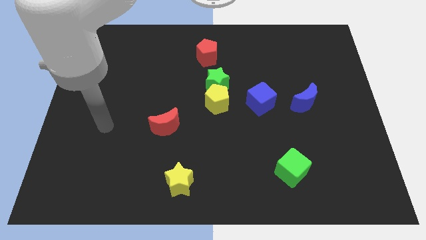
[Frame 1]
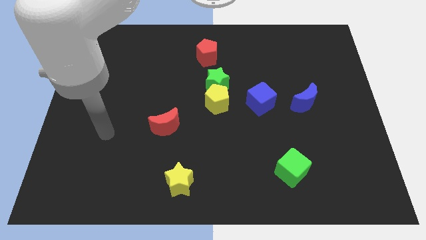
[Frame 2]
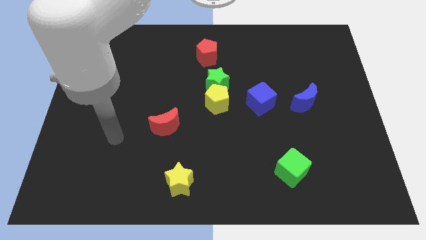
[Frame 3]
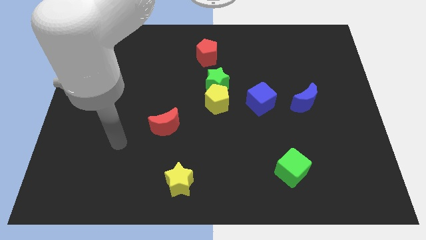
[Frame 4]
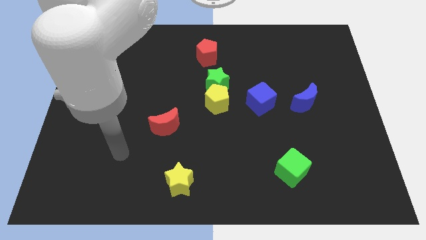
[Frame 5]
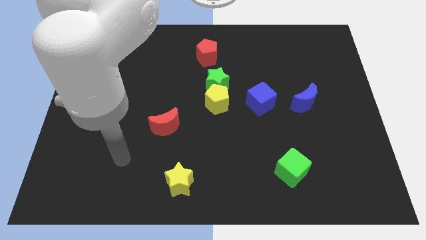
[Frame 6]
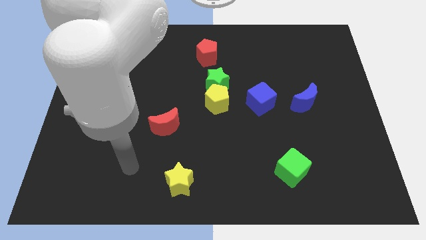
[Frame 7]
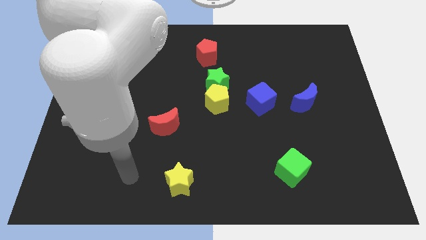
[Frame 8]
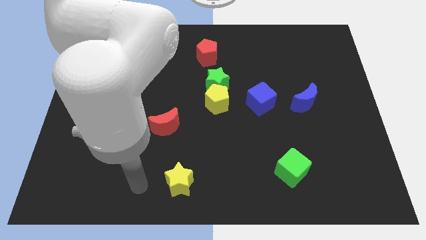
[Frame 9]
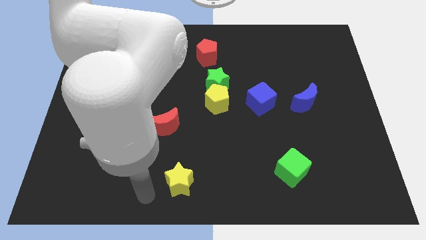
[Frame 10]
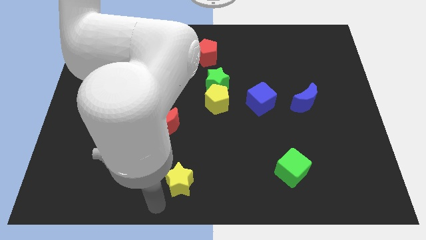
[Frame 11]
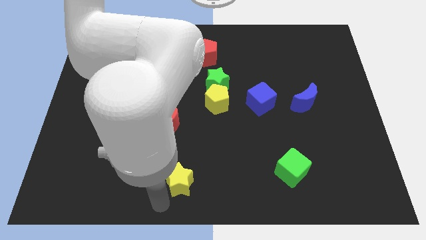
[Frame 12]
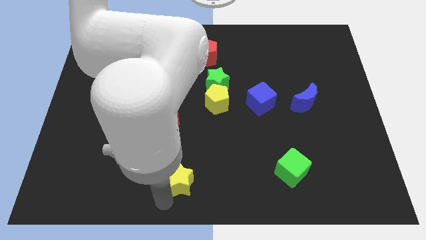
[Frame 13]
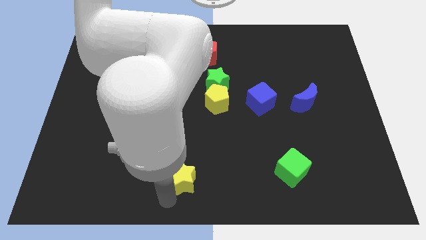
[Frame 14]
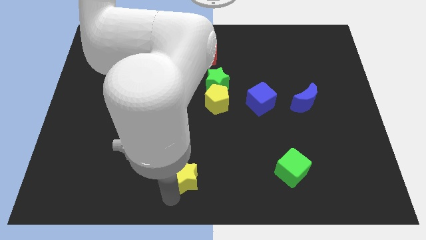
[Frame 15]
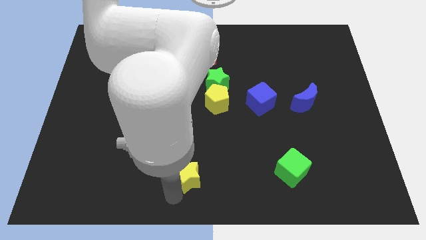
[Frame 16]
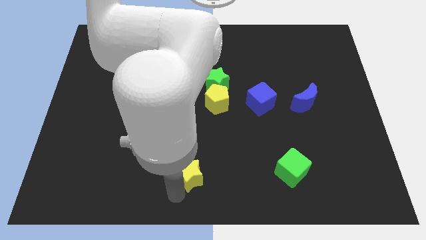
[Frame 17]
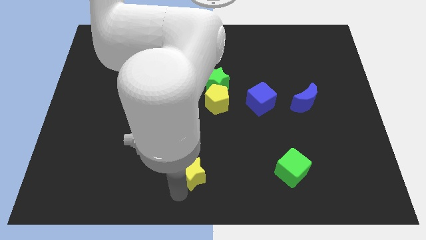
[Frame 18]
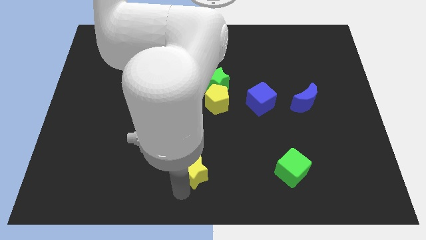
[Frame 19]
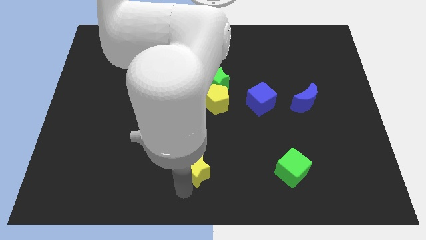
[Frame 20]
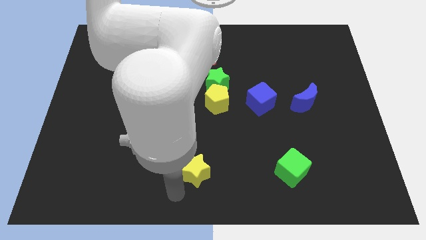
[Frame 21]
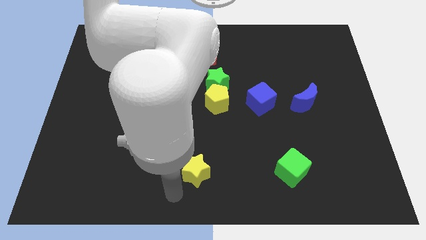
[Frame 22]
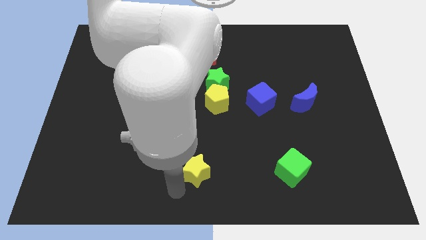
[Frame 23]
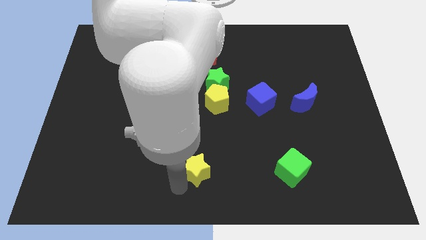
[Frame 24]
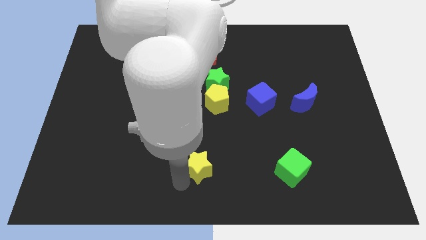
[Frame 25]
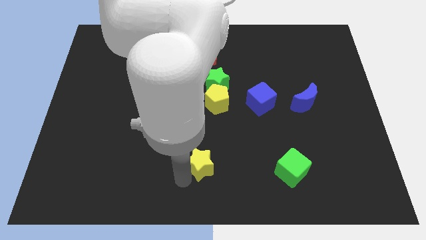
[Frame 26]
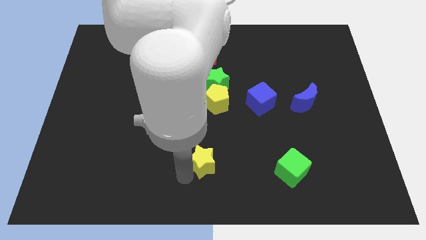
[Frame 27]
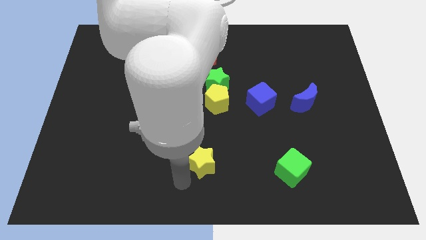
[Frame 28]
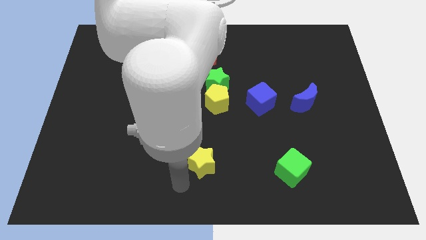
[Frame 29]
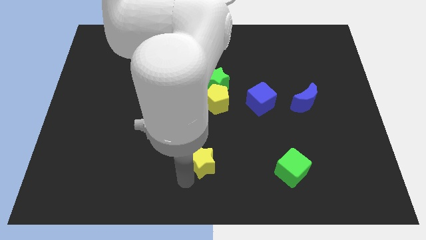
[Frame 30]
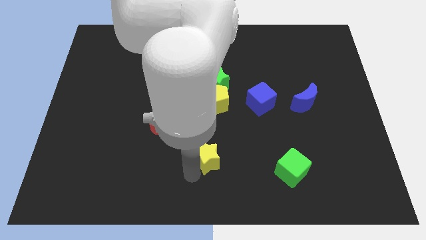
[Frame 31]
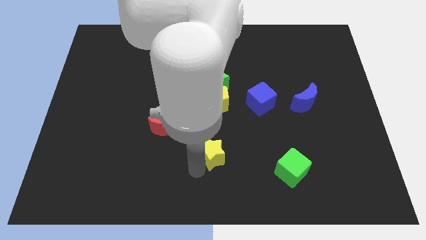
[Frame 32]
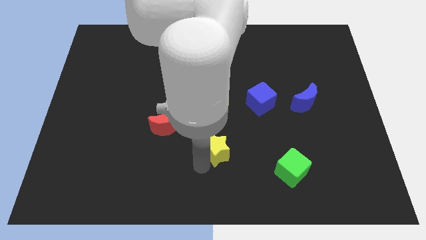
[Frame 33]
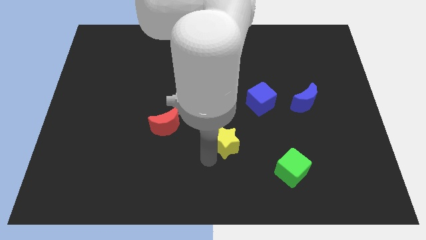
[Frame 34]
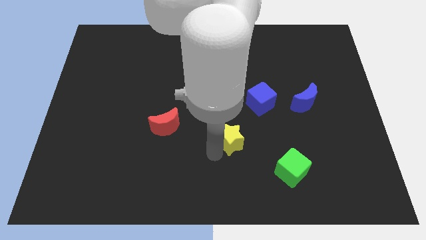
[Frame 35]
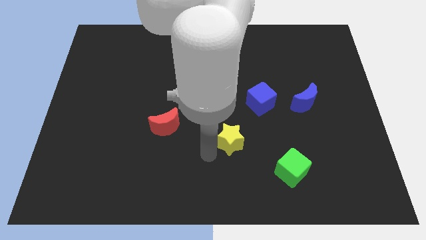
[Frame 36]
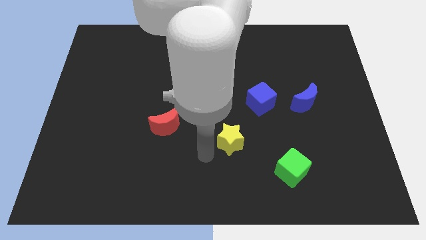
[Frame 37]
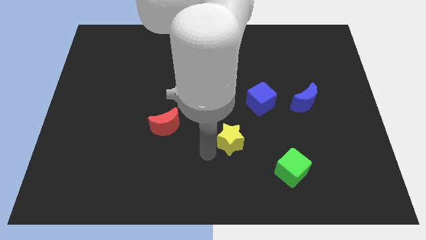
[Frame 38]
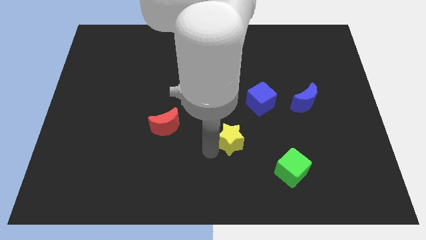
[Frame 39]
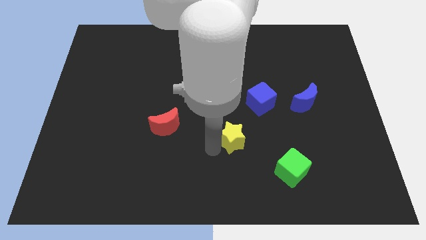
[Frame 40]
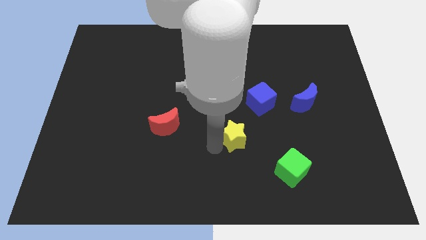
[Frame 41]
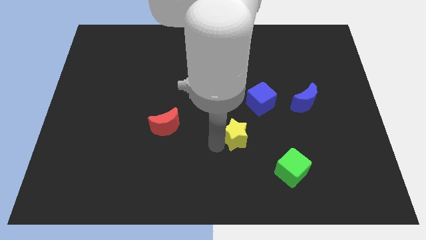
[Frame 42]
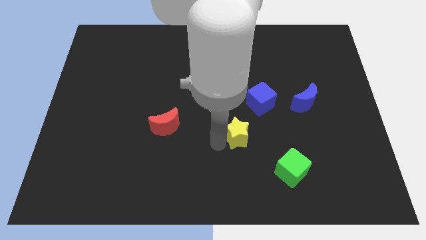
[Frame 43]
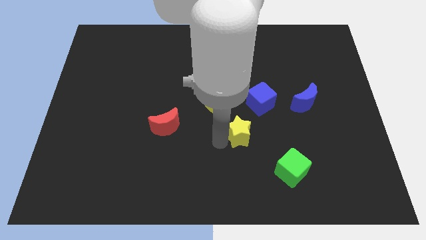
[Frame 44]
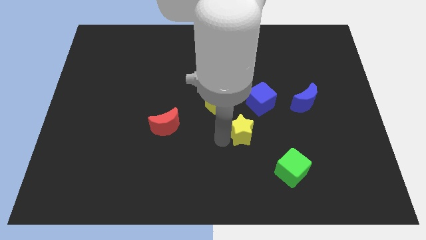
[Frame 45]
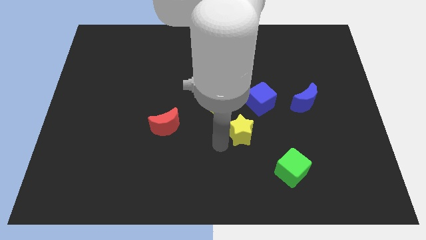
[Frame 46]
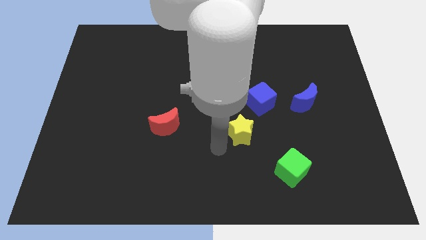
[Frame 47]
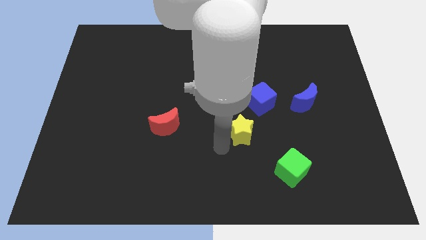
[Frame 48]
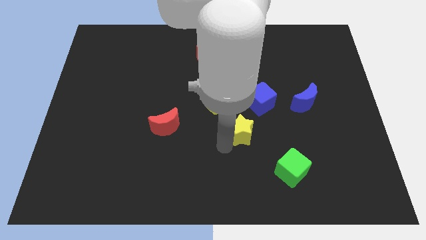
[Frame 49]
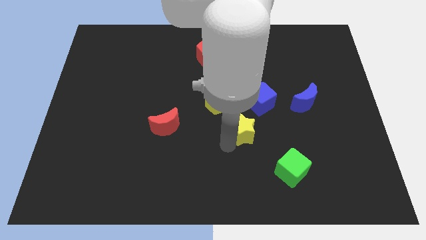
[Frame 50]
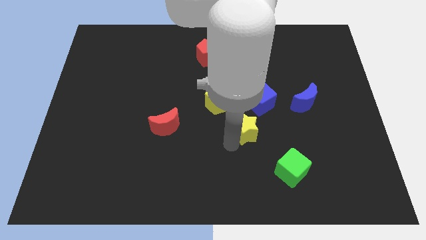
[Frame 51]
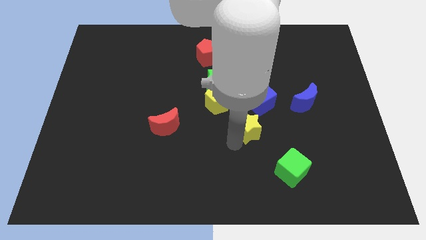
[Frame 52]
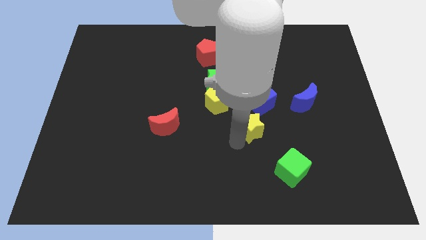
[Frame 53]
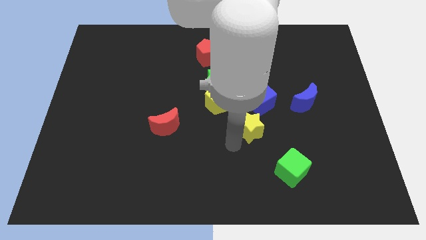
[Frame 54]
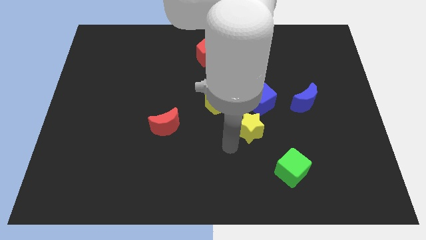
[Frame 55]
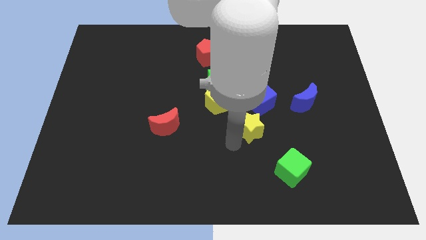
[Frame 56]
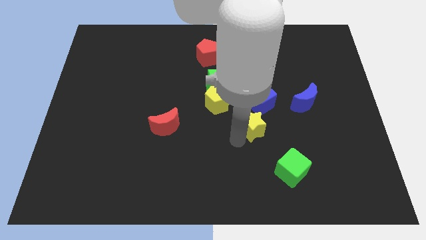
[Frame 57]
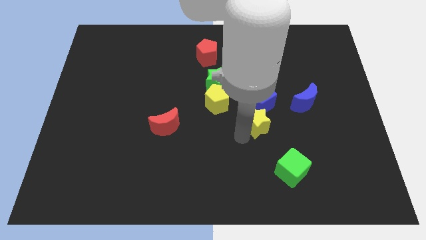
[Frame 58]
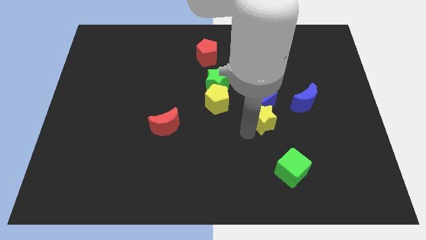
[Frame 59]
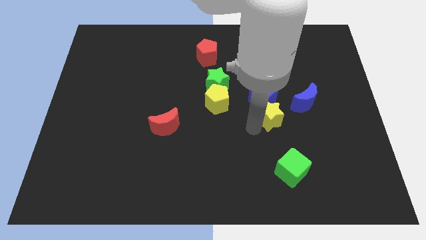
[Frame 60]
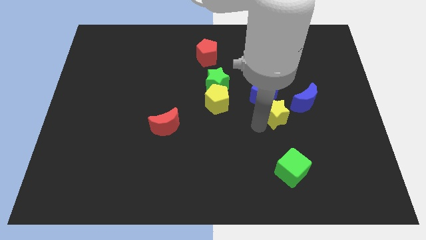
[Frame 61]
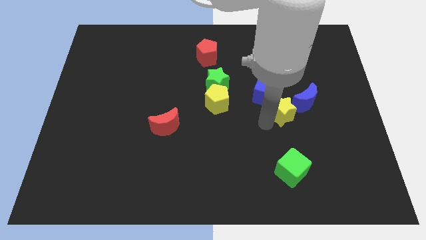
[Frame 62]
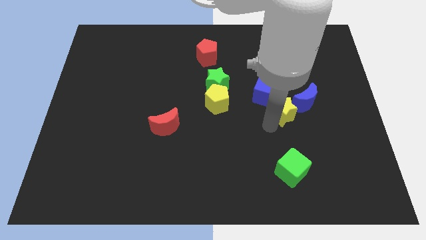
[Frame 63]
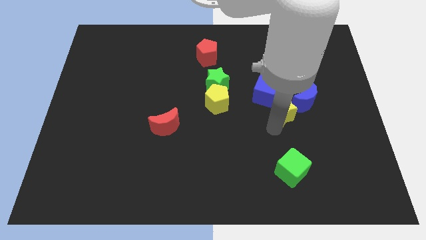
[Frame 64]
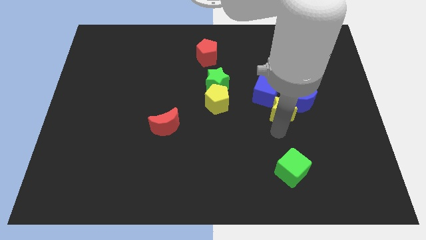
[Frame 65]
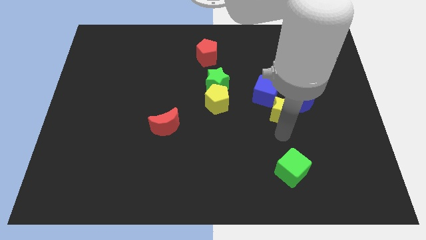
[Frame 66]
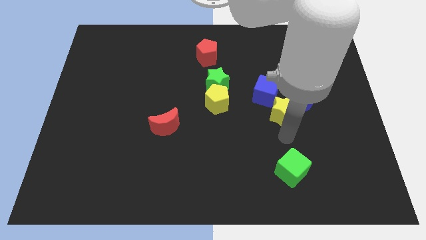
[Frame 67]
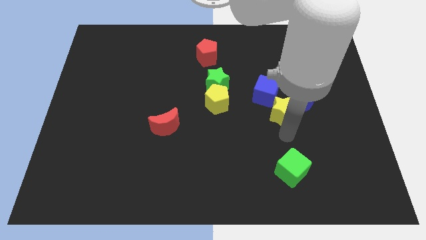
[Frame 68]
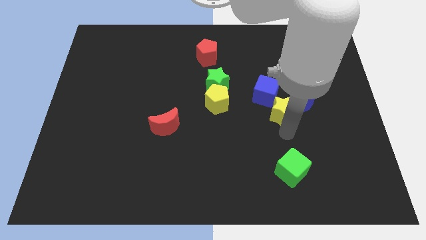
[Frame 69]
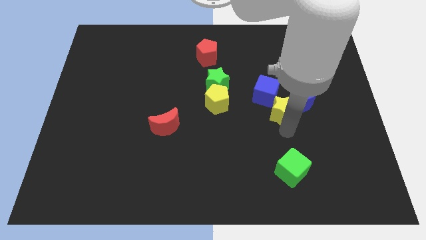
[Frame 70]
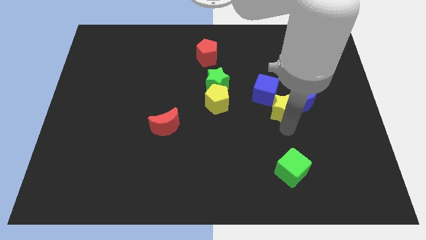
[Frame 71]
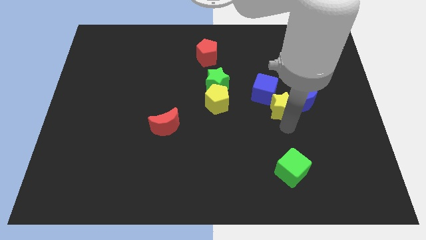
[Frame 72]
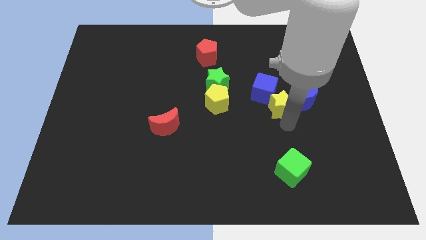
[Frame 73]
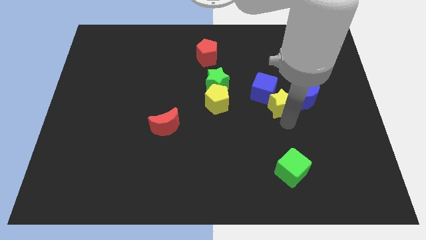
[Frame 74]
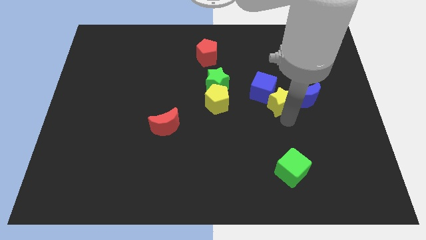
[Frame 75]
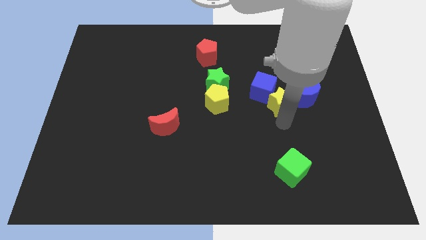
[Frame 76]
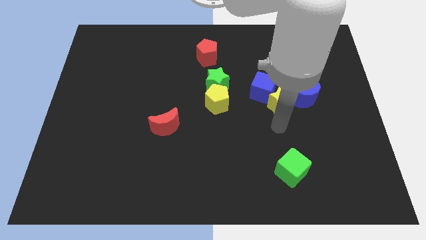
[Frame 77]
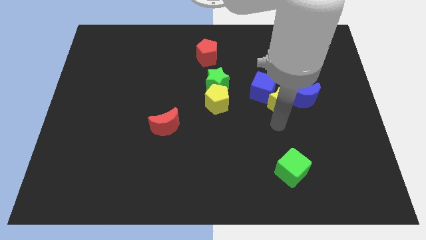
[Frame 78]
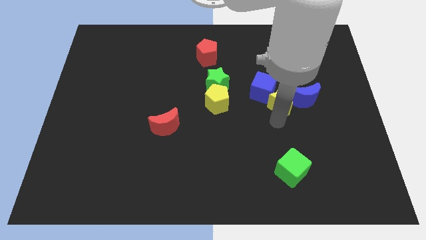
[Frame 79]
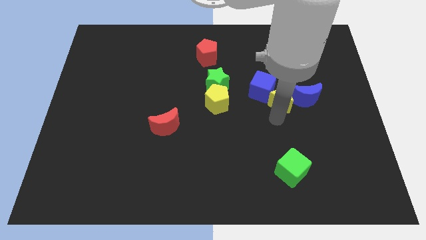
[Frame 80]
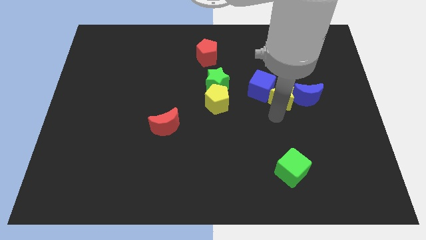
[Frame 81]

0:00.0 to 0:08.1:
slide the yellow star diagonally up and to the left of the blue moon
